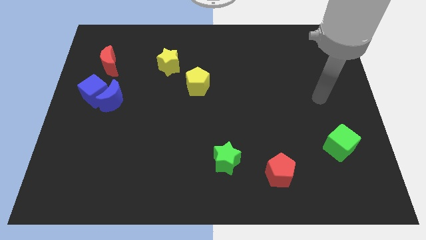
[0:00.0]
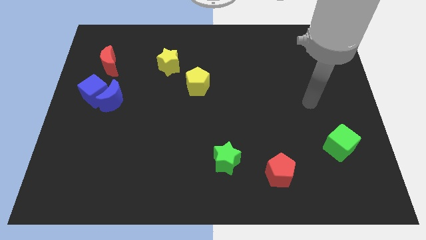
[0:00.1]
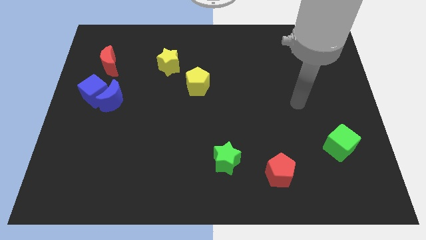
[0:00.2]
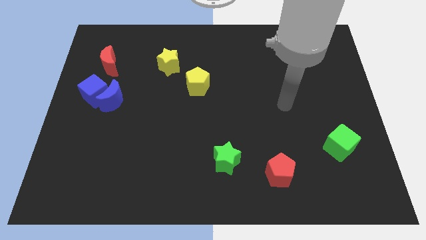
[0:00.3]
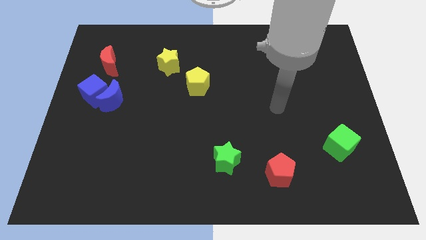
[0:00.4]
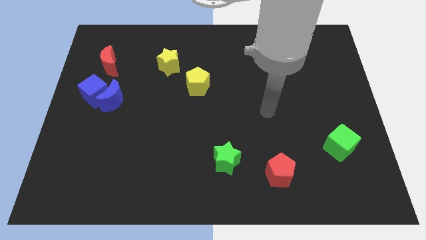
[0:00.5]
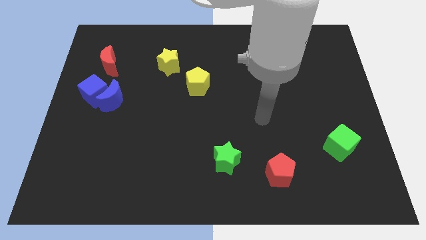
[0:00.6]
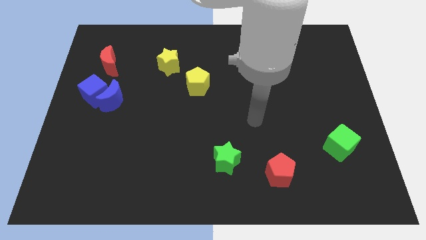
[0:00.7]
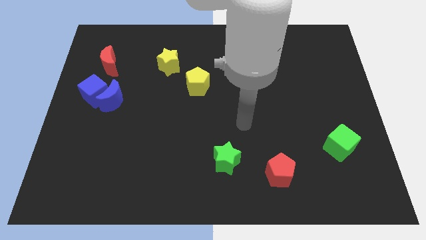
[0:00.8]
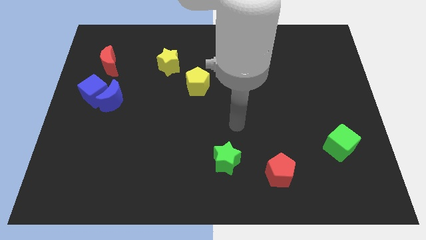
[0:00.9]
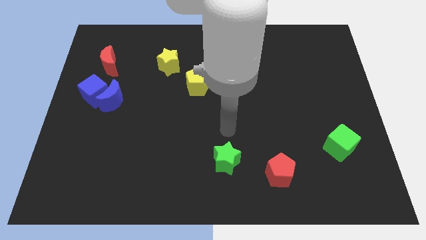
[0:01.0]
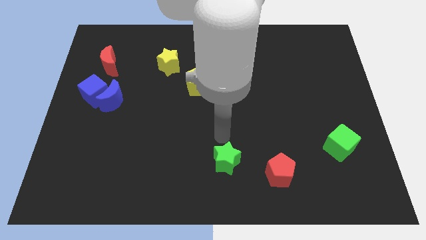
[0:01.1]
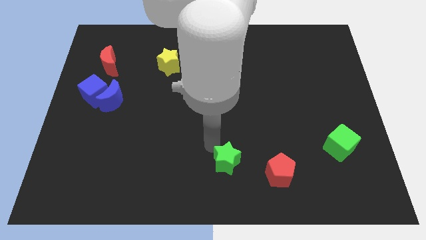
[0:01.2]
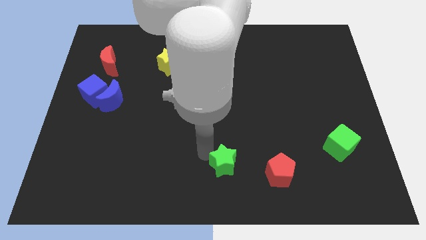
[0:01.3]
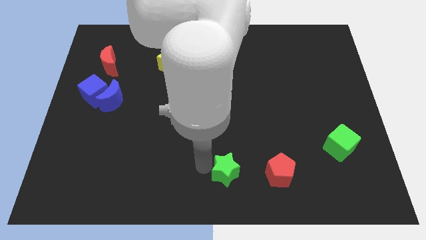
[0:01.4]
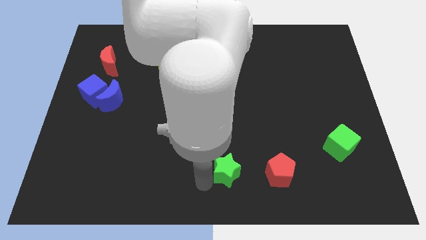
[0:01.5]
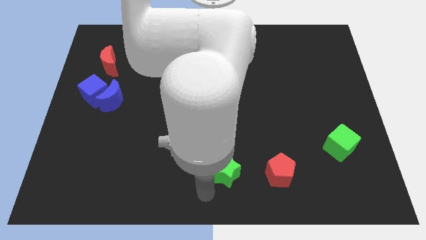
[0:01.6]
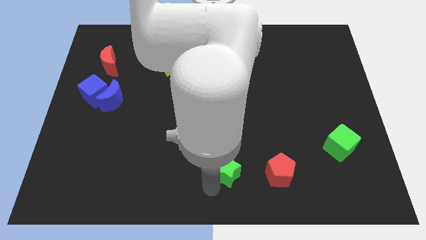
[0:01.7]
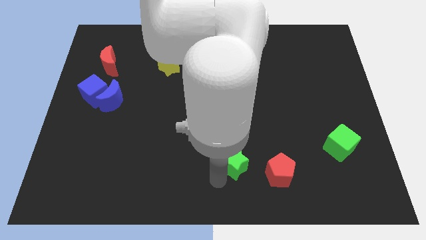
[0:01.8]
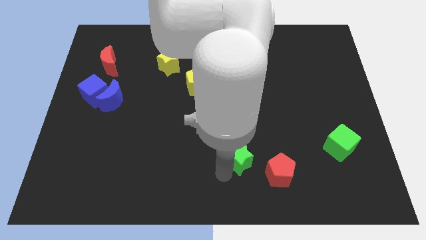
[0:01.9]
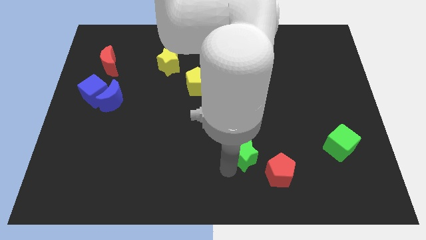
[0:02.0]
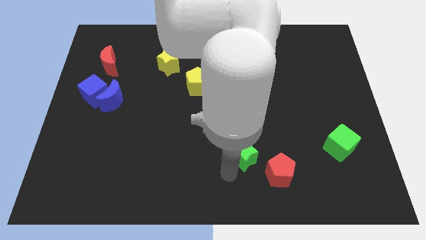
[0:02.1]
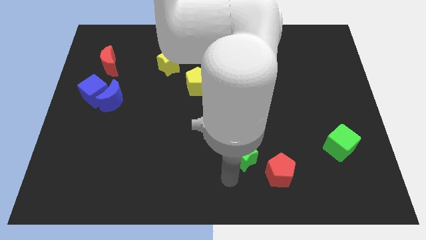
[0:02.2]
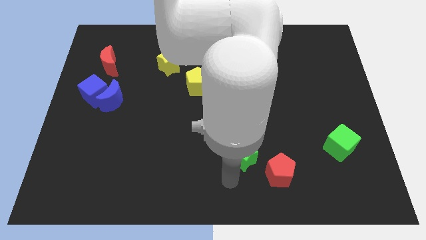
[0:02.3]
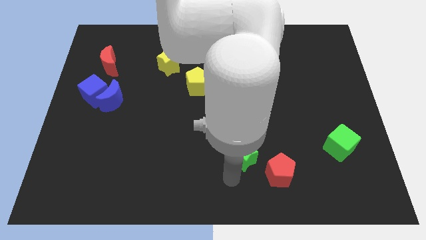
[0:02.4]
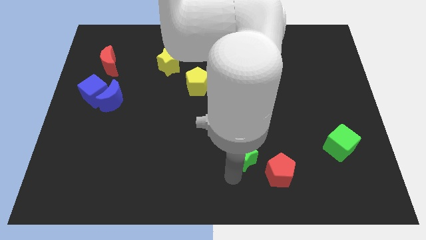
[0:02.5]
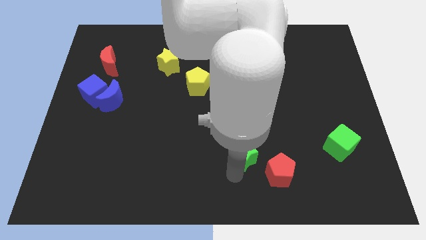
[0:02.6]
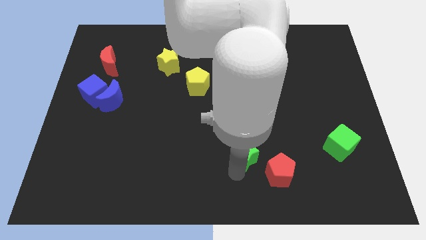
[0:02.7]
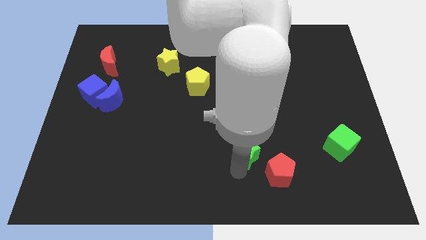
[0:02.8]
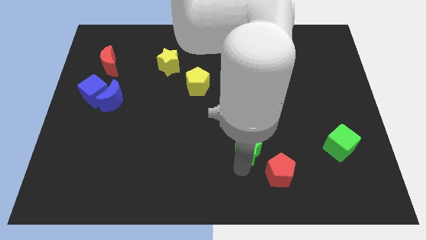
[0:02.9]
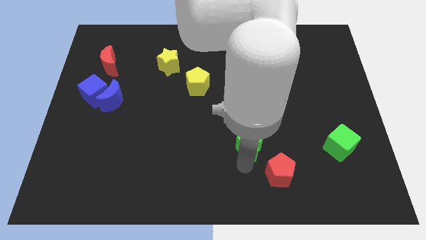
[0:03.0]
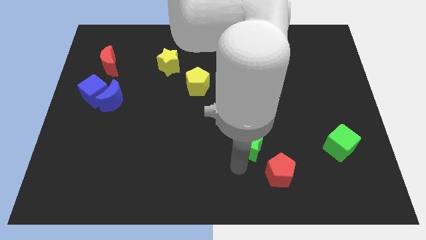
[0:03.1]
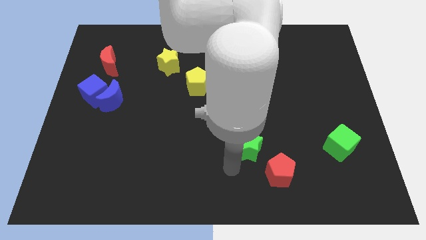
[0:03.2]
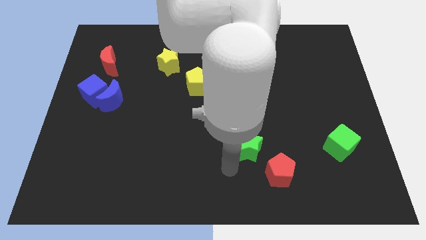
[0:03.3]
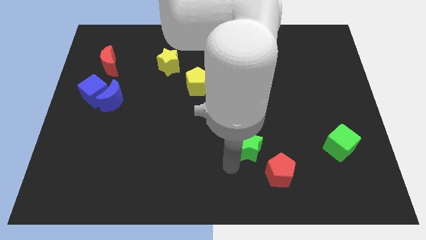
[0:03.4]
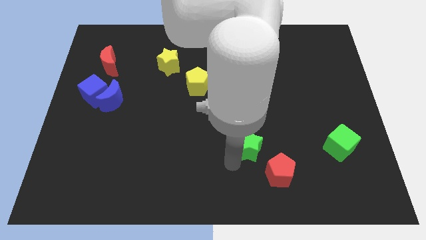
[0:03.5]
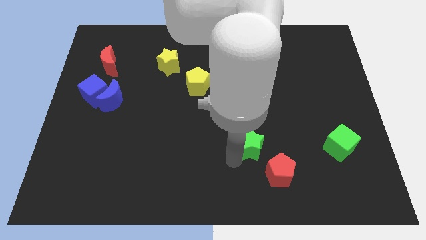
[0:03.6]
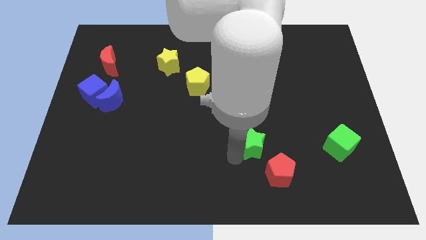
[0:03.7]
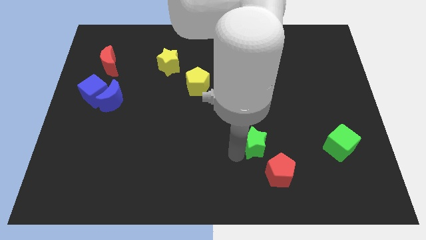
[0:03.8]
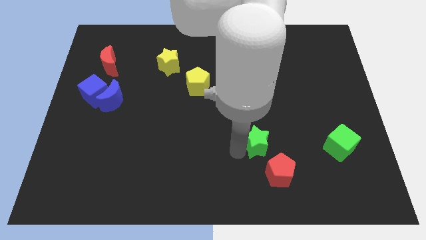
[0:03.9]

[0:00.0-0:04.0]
slide the green star upwards and to the right diagonally a bit

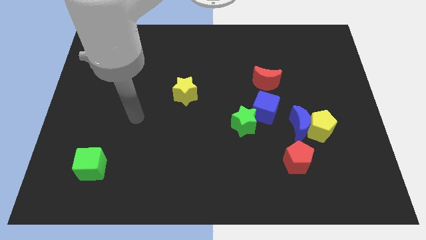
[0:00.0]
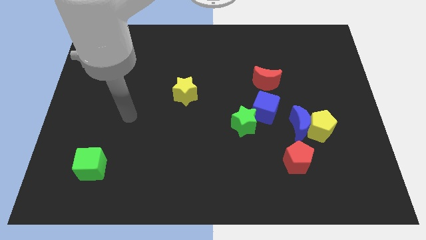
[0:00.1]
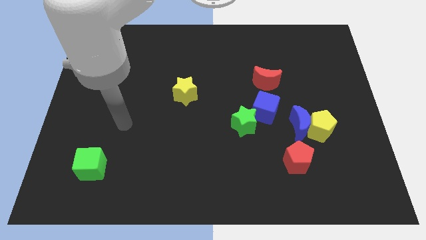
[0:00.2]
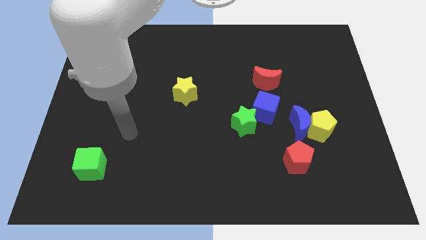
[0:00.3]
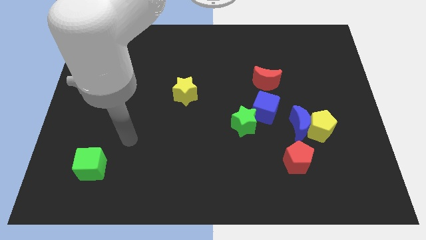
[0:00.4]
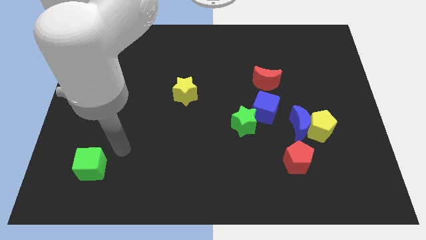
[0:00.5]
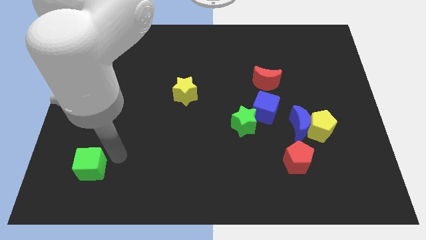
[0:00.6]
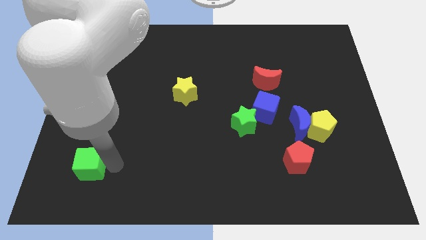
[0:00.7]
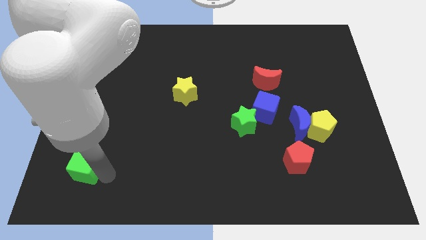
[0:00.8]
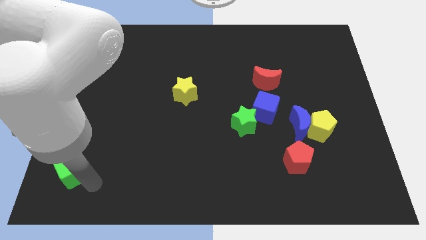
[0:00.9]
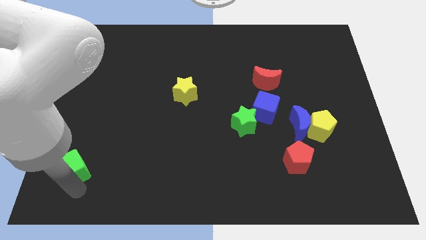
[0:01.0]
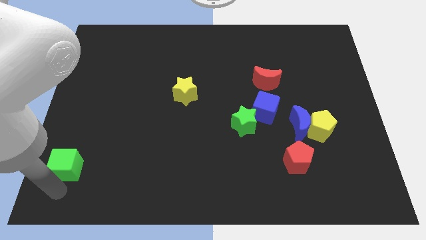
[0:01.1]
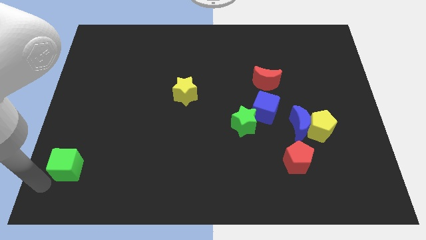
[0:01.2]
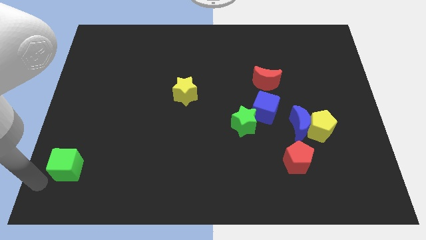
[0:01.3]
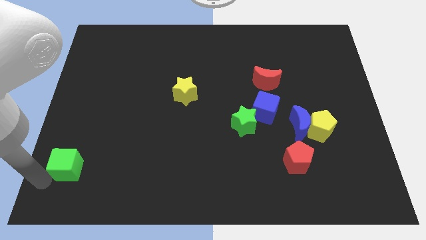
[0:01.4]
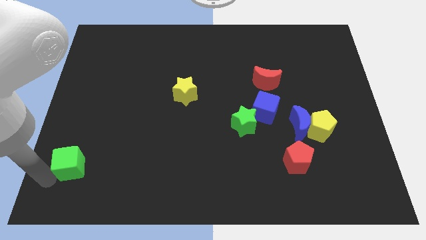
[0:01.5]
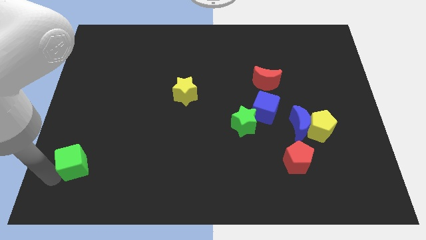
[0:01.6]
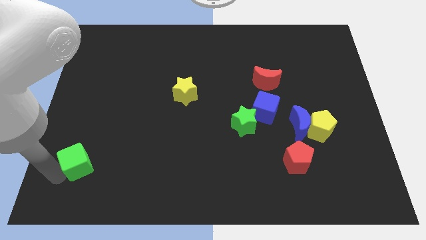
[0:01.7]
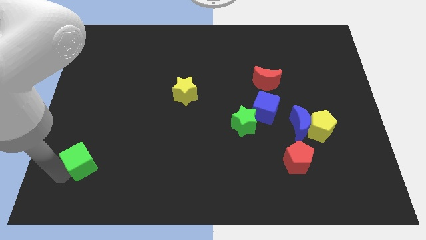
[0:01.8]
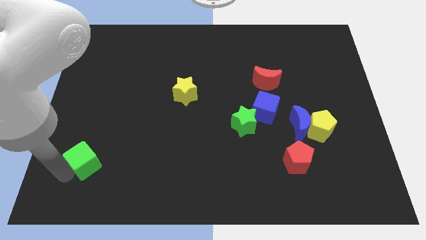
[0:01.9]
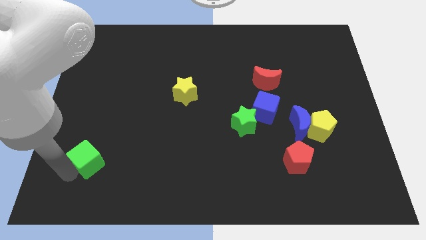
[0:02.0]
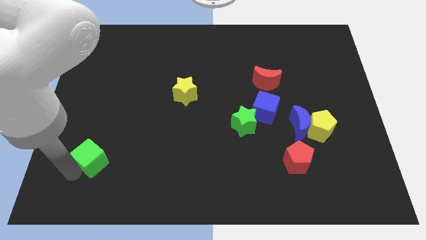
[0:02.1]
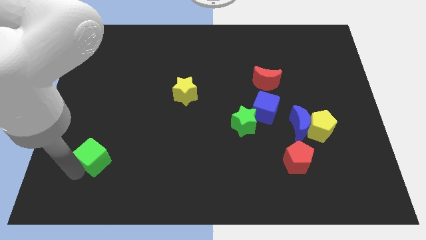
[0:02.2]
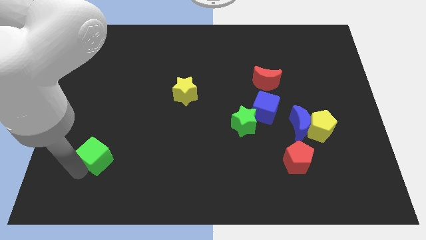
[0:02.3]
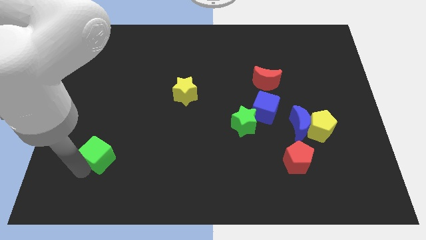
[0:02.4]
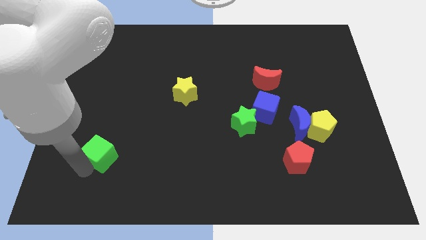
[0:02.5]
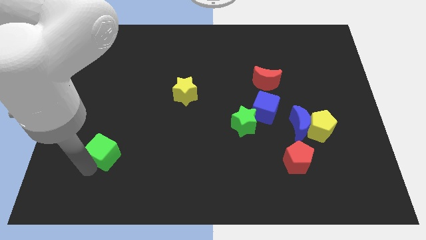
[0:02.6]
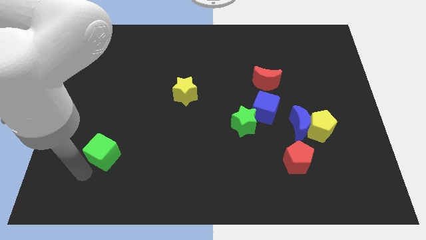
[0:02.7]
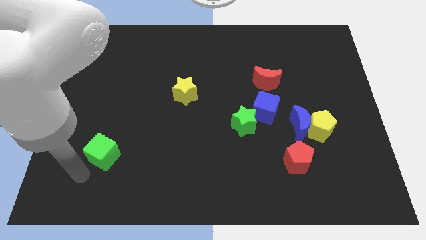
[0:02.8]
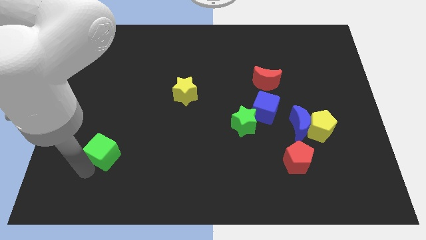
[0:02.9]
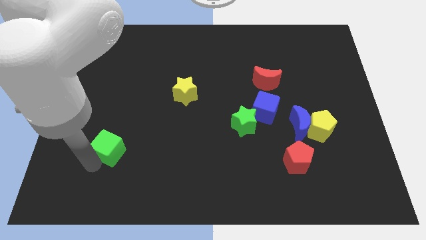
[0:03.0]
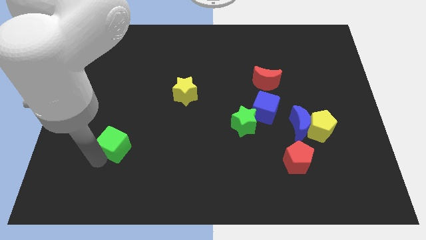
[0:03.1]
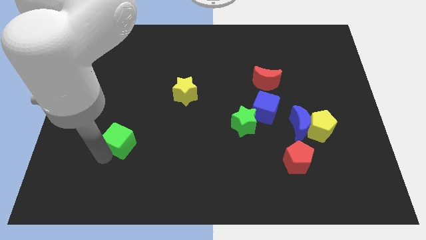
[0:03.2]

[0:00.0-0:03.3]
slide the green cube a little bit up and right

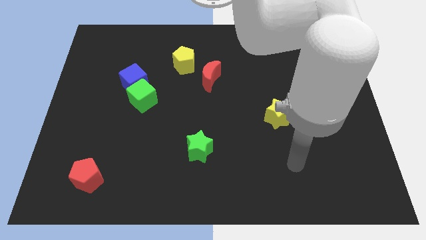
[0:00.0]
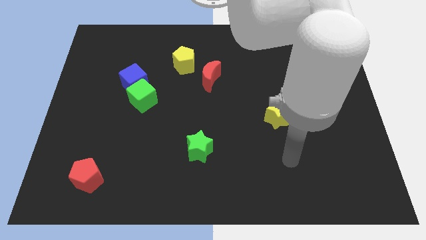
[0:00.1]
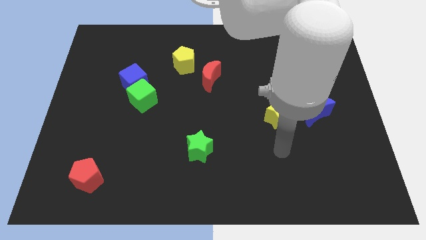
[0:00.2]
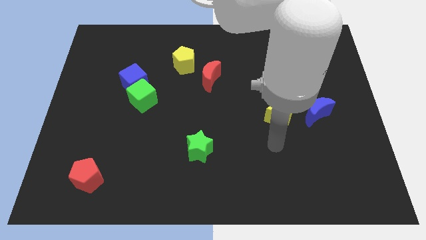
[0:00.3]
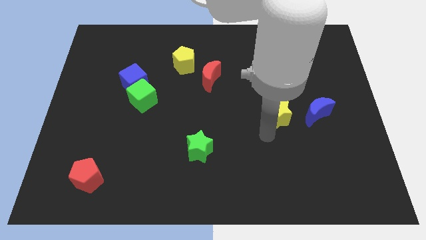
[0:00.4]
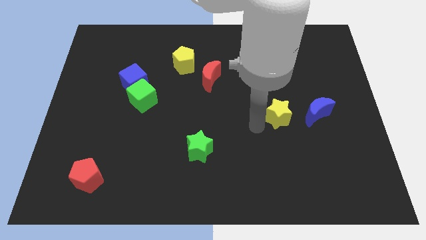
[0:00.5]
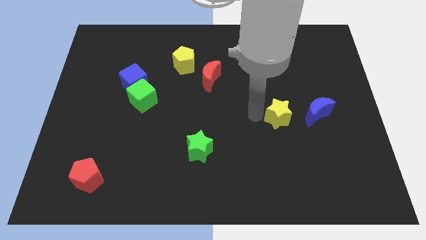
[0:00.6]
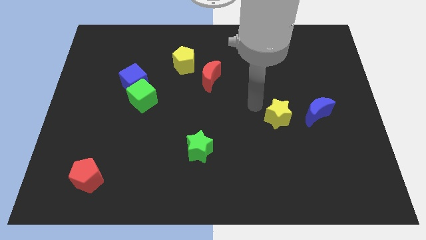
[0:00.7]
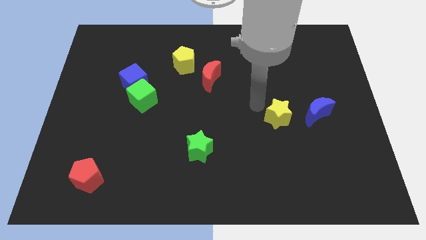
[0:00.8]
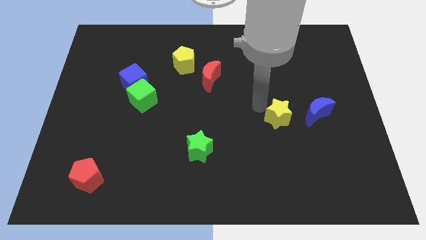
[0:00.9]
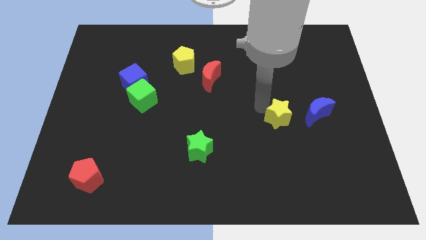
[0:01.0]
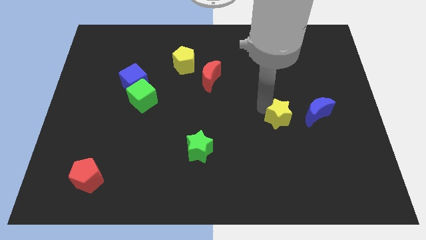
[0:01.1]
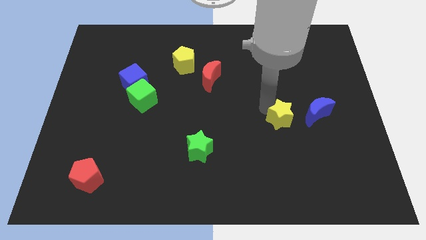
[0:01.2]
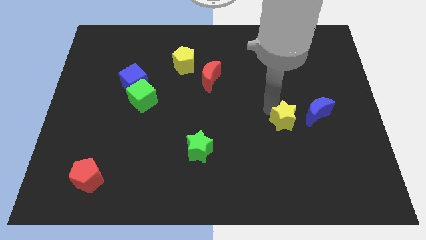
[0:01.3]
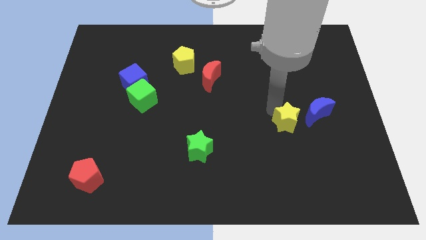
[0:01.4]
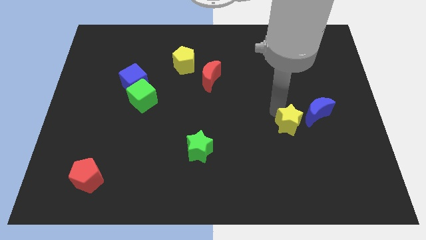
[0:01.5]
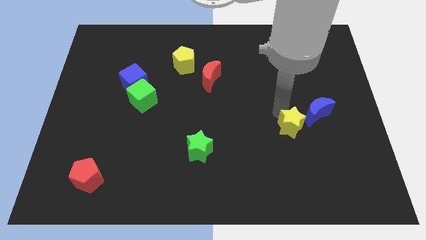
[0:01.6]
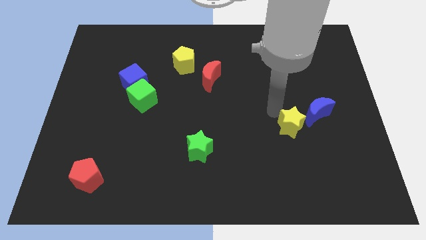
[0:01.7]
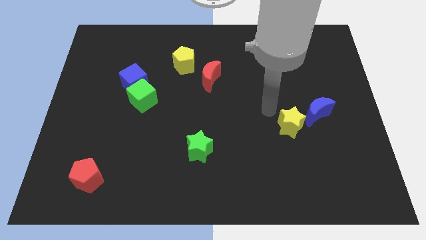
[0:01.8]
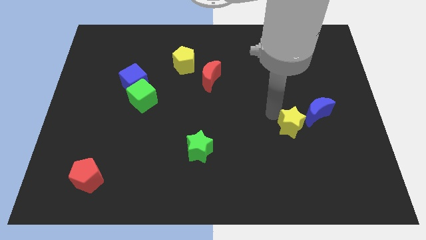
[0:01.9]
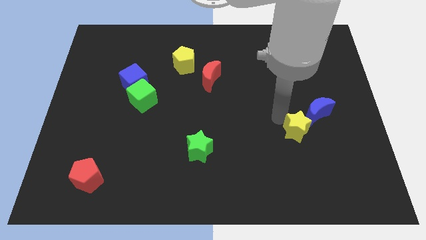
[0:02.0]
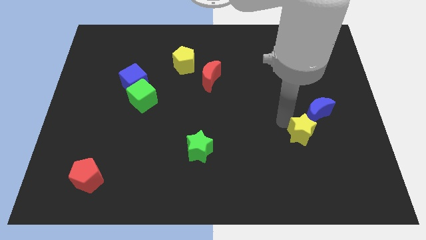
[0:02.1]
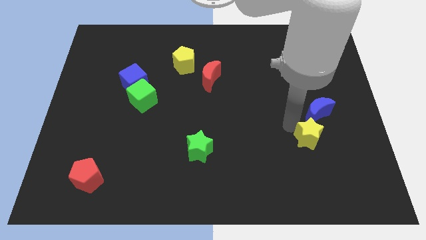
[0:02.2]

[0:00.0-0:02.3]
slightly slide the yellow star down and to the right
